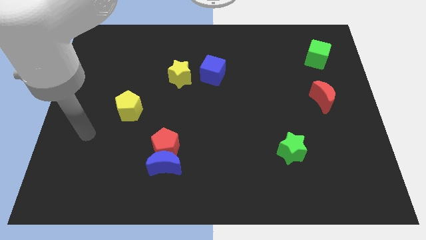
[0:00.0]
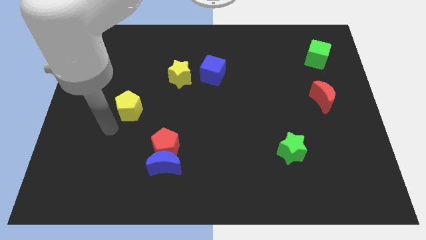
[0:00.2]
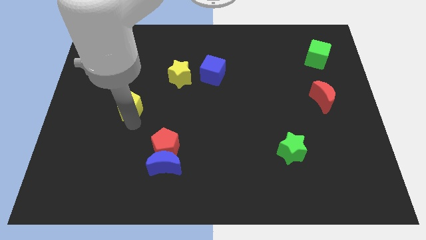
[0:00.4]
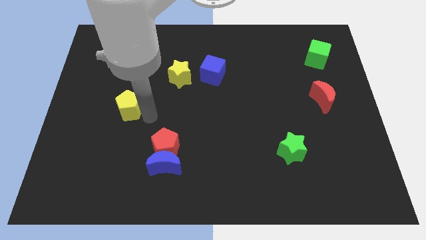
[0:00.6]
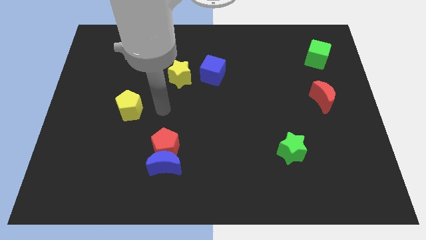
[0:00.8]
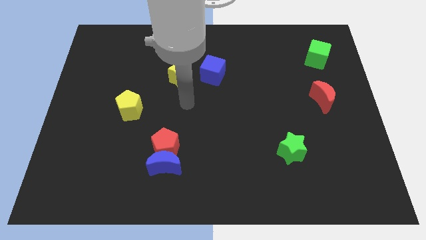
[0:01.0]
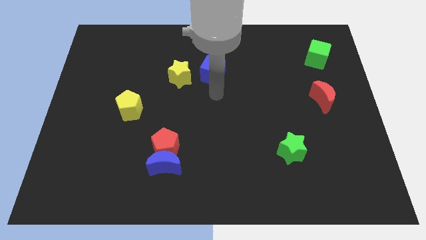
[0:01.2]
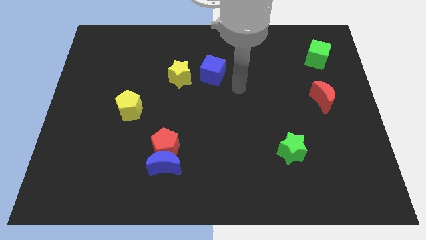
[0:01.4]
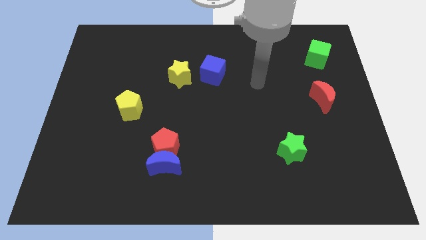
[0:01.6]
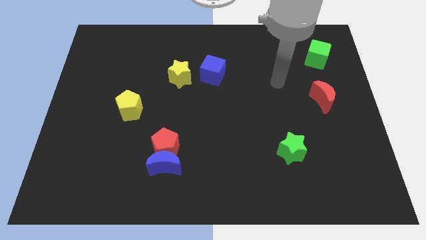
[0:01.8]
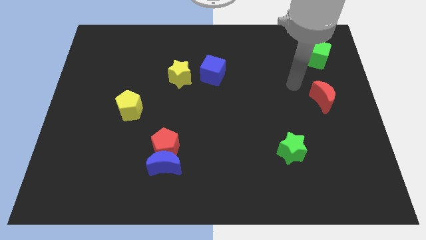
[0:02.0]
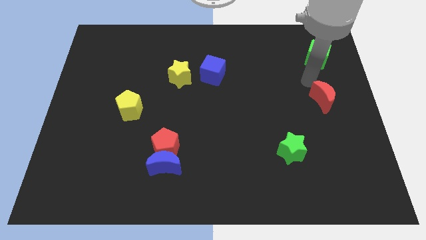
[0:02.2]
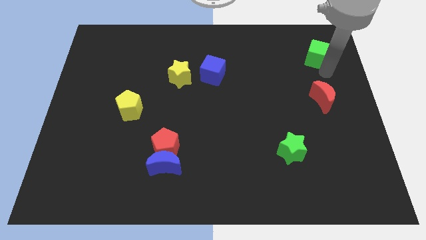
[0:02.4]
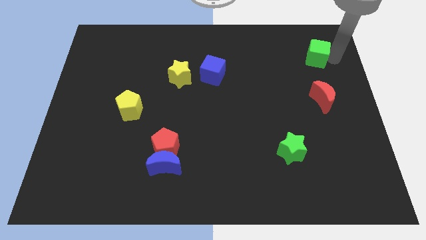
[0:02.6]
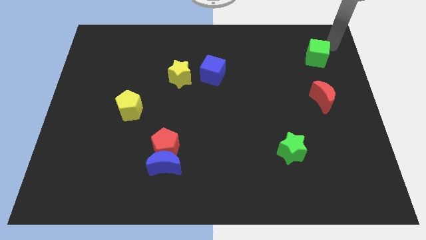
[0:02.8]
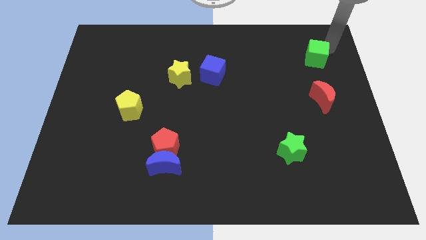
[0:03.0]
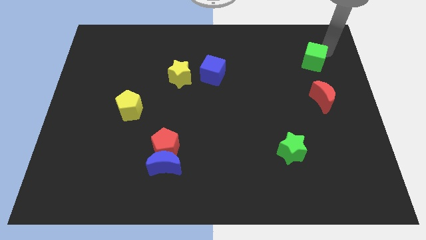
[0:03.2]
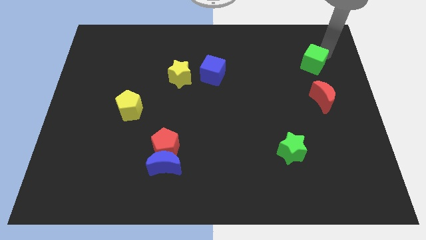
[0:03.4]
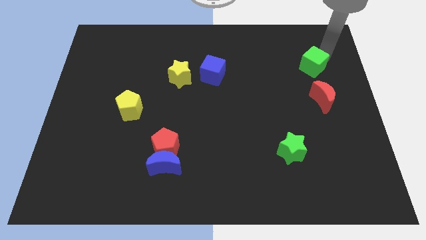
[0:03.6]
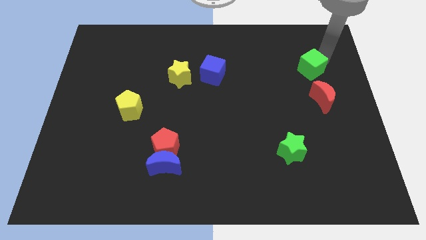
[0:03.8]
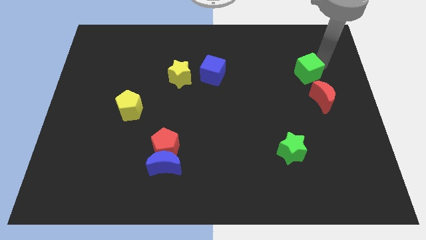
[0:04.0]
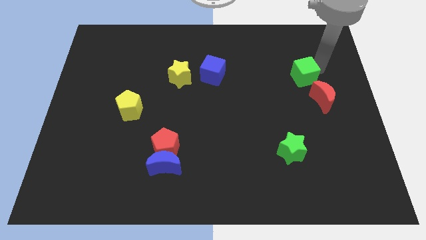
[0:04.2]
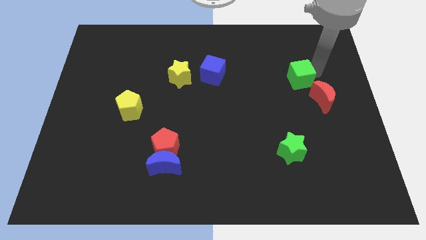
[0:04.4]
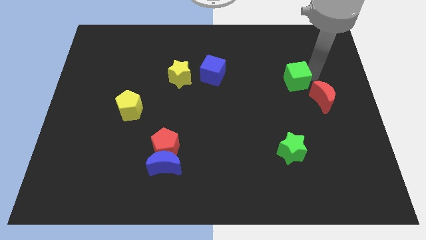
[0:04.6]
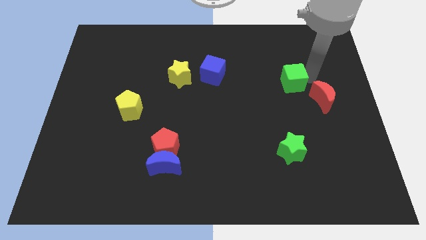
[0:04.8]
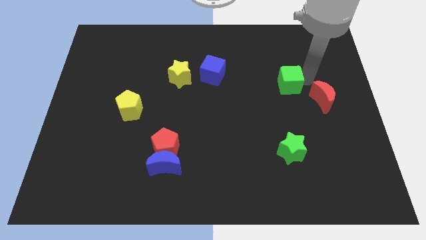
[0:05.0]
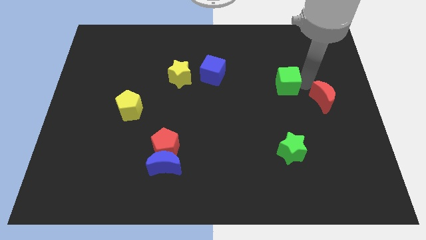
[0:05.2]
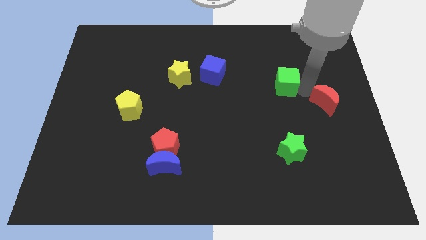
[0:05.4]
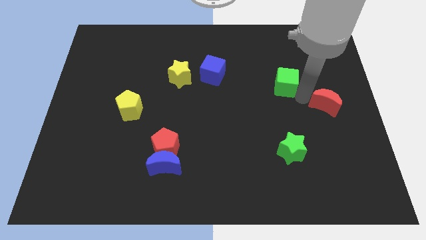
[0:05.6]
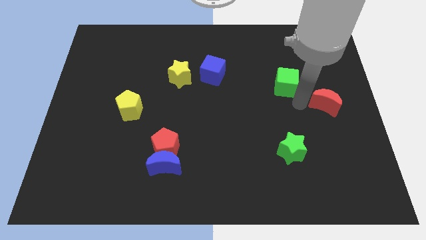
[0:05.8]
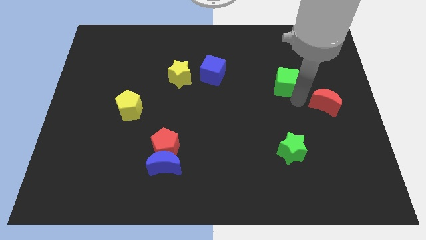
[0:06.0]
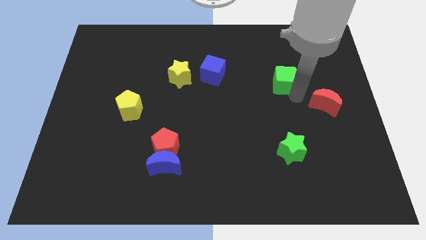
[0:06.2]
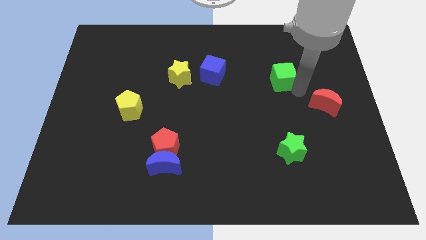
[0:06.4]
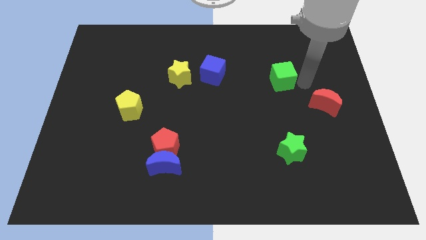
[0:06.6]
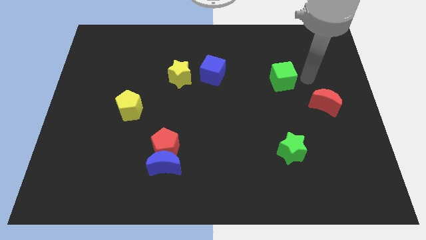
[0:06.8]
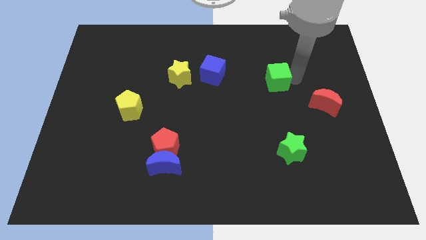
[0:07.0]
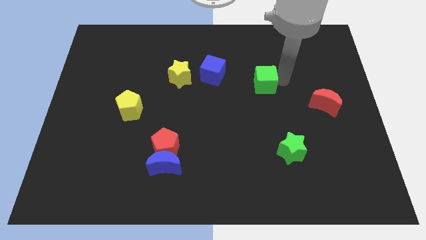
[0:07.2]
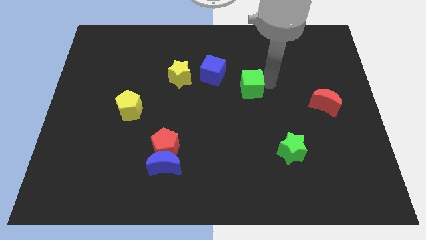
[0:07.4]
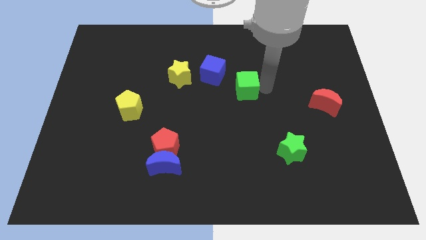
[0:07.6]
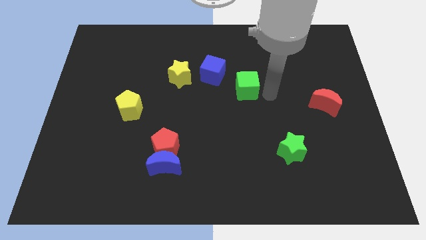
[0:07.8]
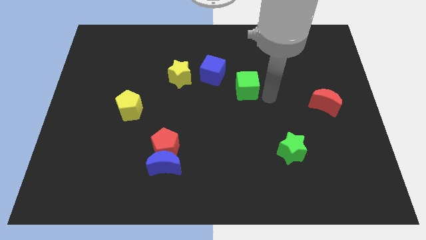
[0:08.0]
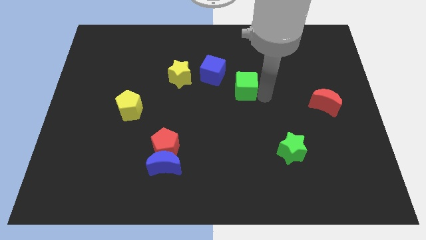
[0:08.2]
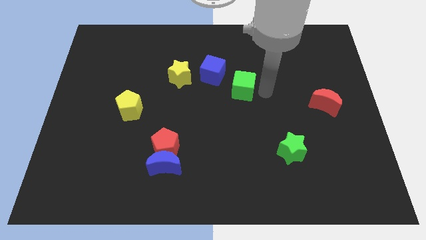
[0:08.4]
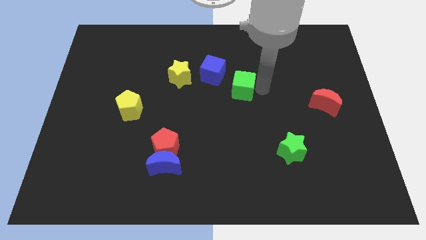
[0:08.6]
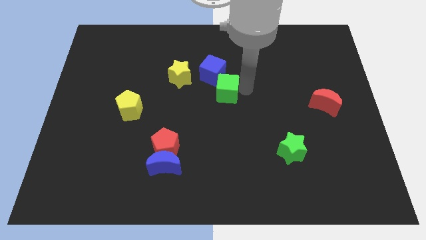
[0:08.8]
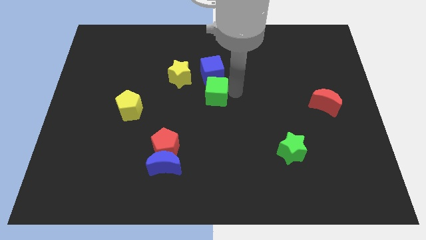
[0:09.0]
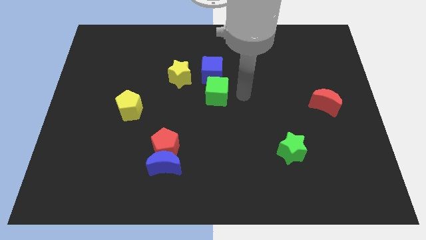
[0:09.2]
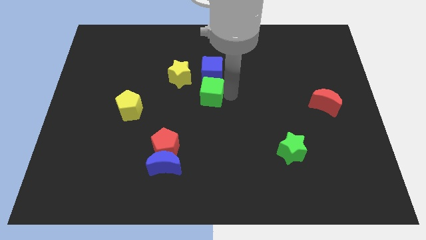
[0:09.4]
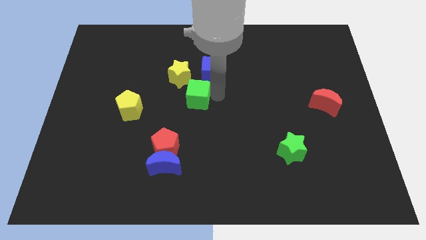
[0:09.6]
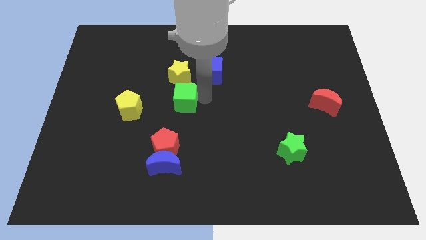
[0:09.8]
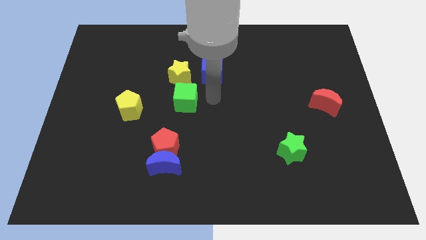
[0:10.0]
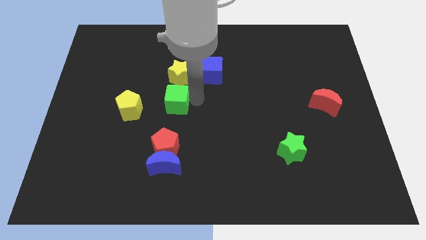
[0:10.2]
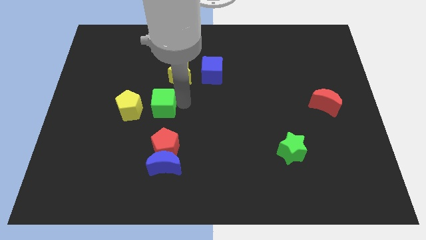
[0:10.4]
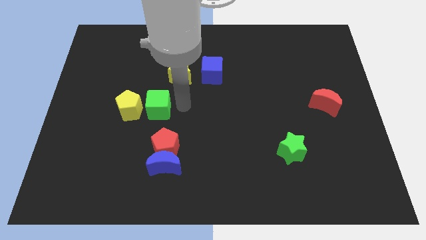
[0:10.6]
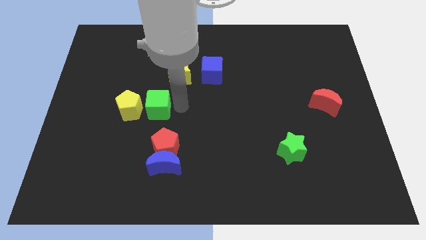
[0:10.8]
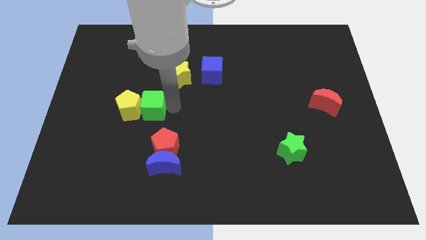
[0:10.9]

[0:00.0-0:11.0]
slide the green cube towards the yellow pentagon

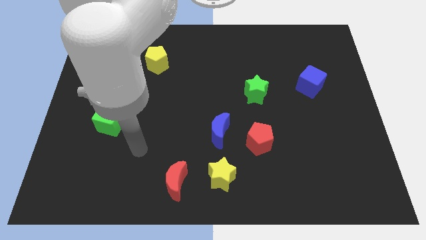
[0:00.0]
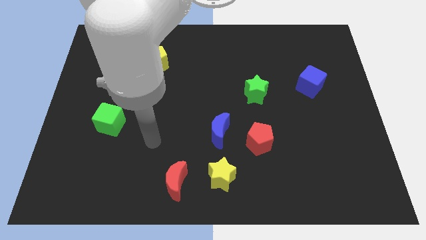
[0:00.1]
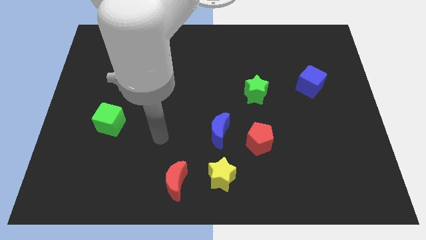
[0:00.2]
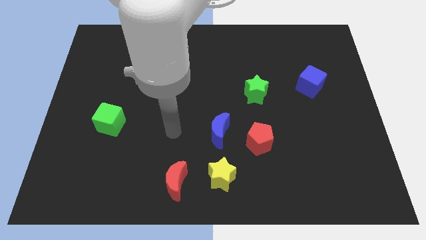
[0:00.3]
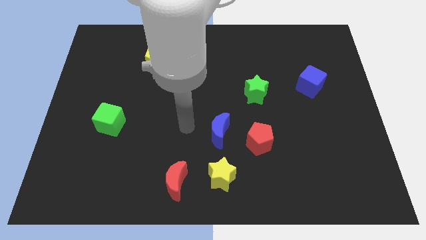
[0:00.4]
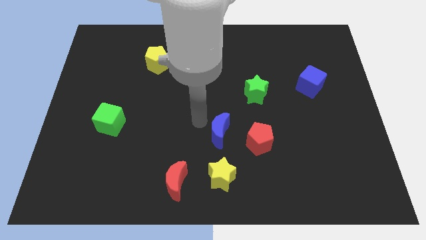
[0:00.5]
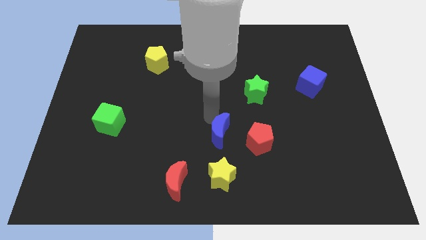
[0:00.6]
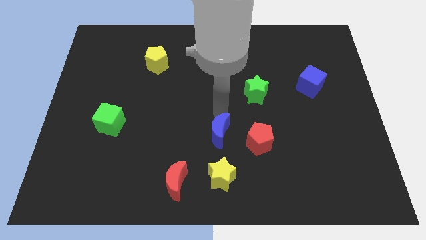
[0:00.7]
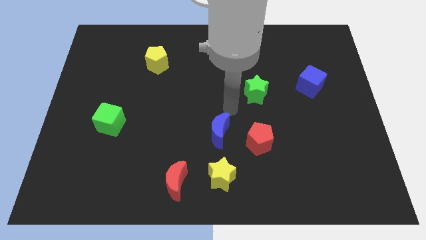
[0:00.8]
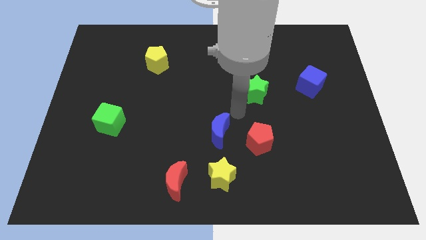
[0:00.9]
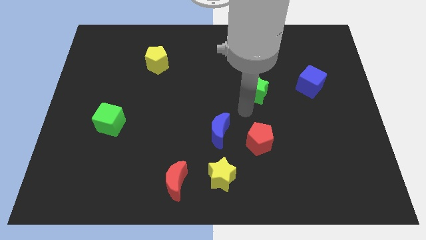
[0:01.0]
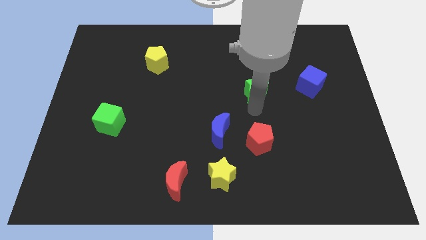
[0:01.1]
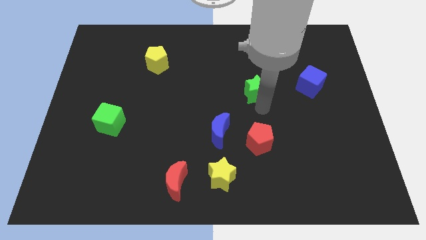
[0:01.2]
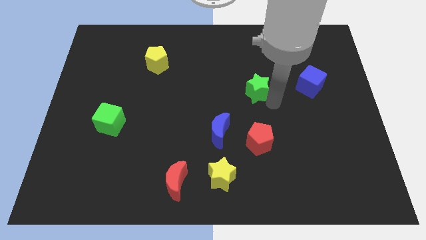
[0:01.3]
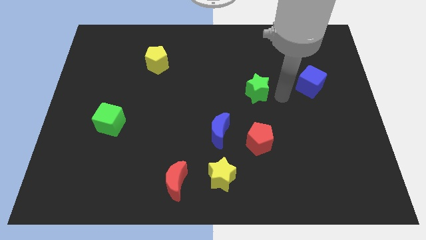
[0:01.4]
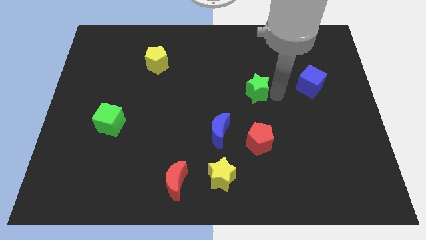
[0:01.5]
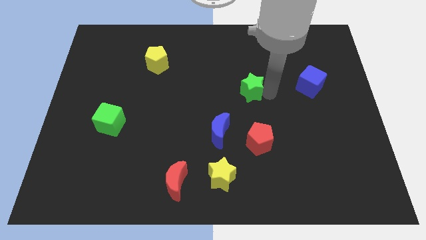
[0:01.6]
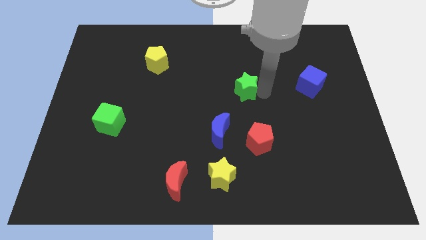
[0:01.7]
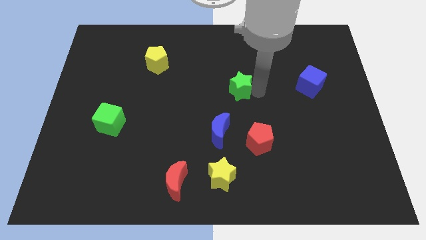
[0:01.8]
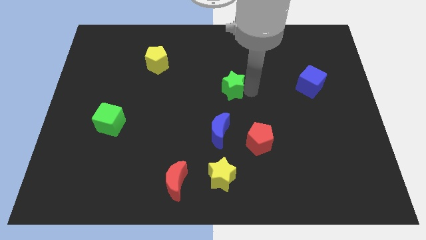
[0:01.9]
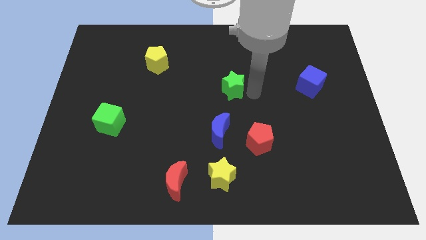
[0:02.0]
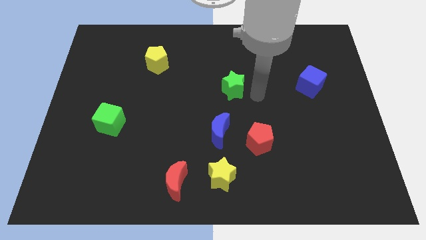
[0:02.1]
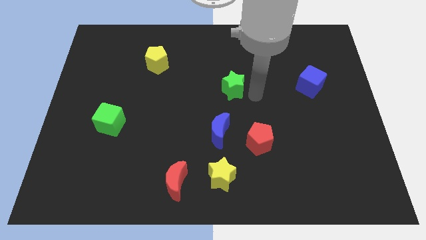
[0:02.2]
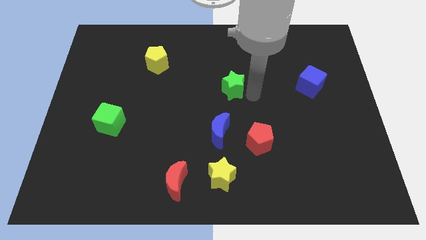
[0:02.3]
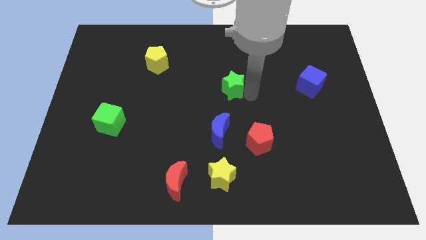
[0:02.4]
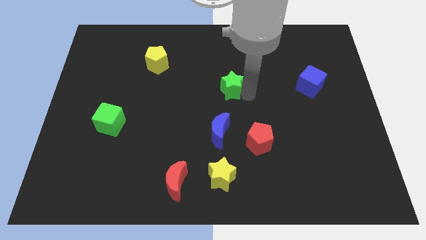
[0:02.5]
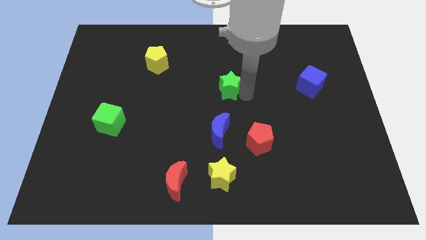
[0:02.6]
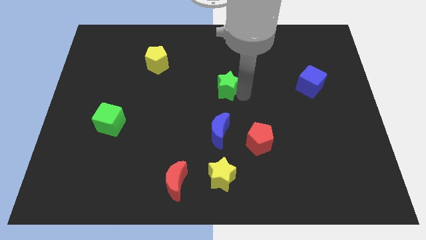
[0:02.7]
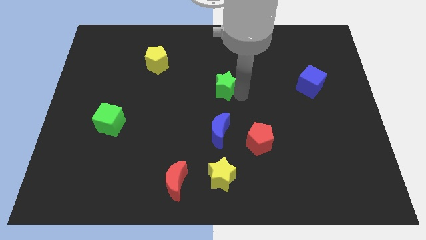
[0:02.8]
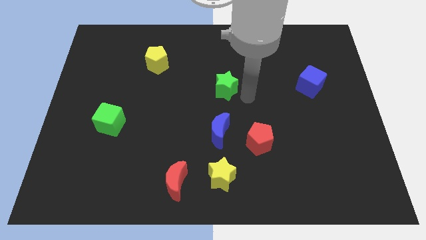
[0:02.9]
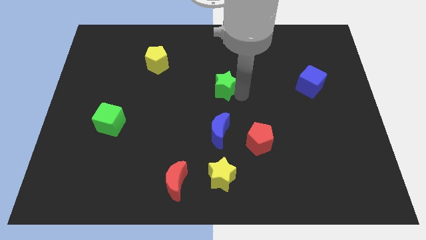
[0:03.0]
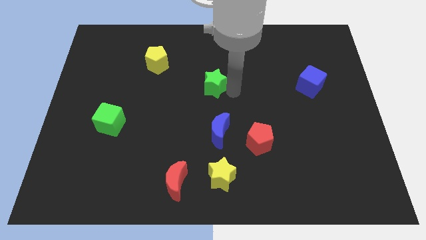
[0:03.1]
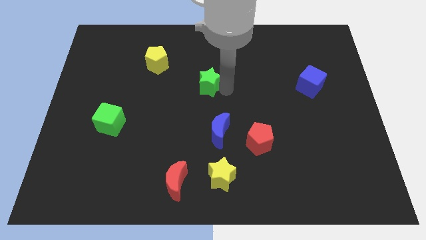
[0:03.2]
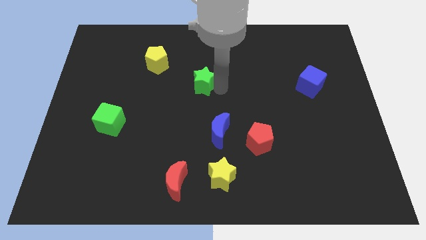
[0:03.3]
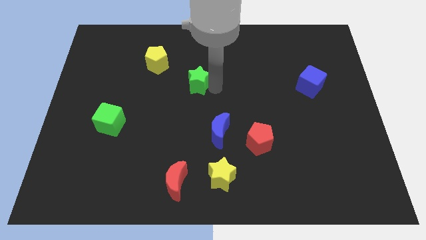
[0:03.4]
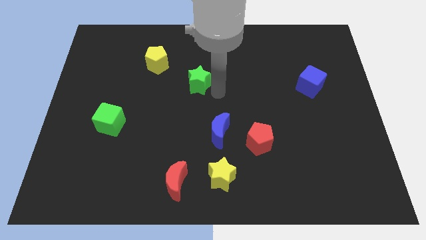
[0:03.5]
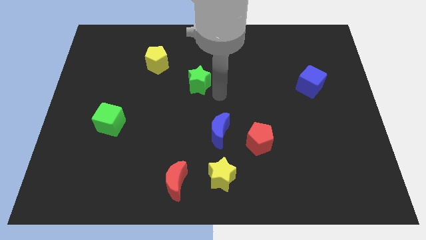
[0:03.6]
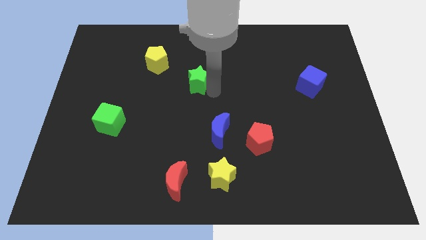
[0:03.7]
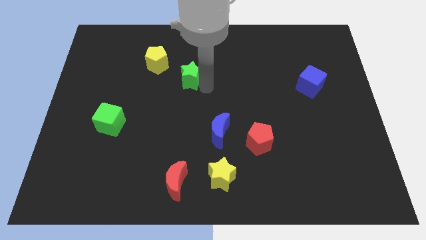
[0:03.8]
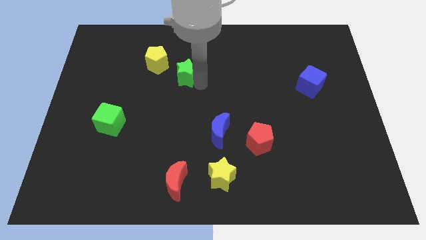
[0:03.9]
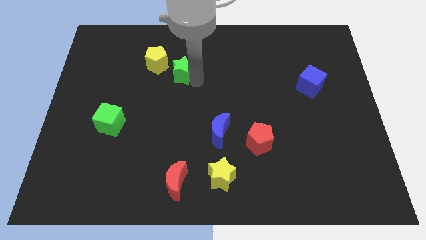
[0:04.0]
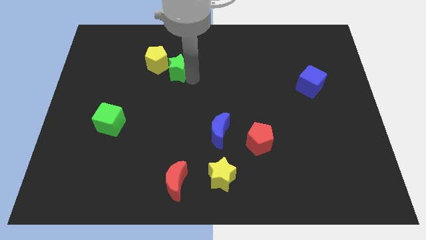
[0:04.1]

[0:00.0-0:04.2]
push the green star to the yellow pentagon
